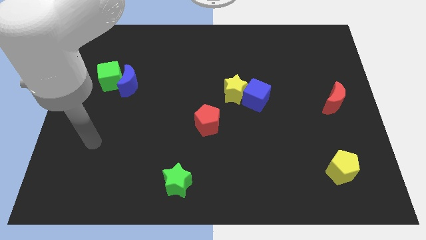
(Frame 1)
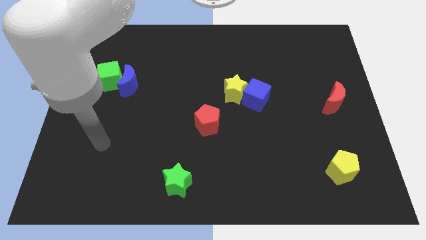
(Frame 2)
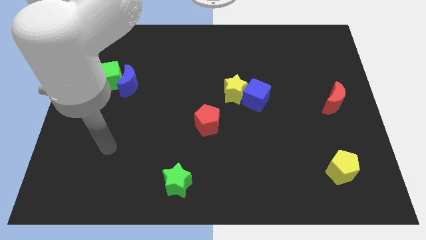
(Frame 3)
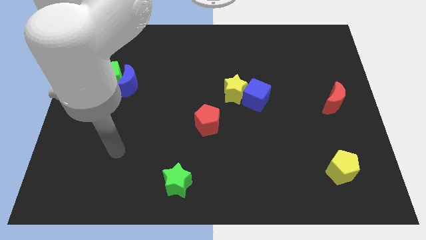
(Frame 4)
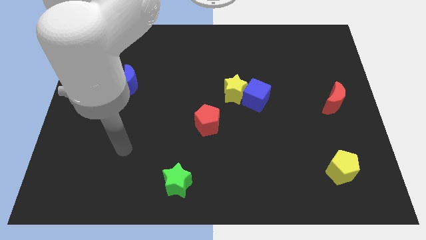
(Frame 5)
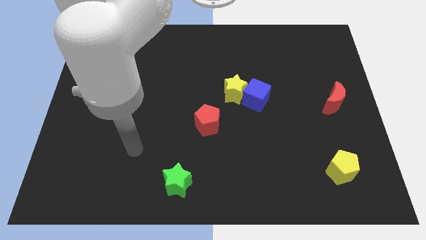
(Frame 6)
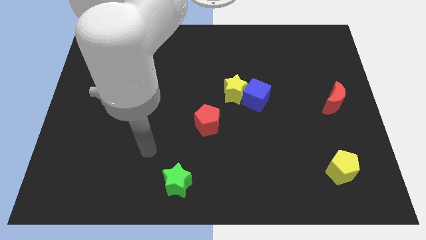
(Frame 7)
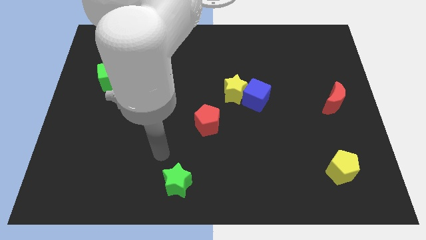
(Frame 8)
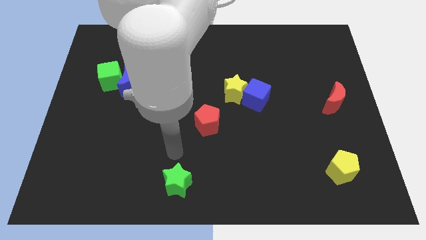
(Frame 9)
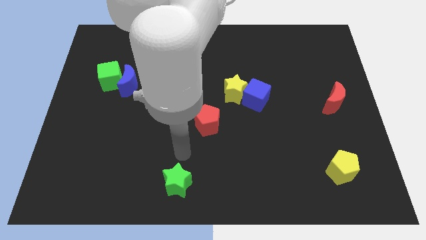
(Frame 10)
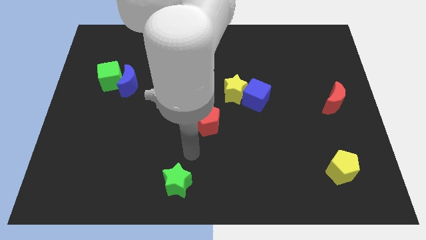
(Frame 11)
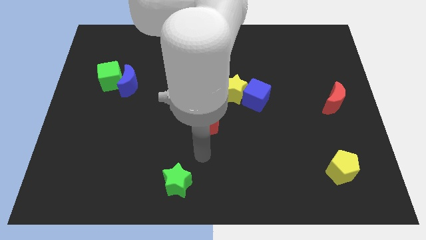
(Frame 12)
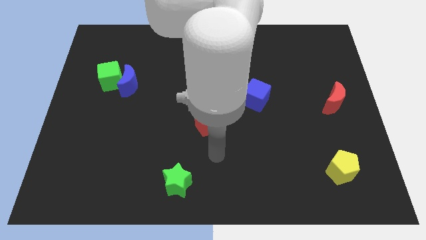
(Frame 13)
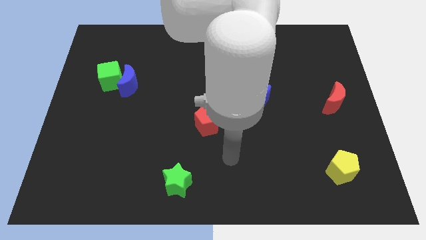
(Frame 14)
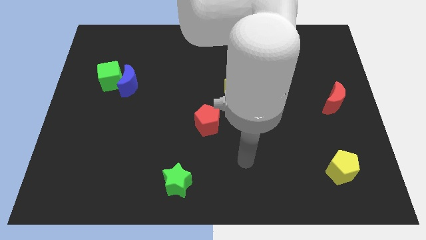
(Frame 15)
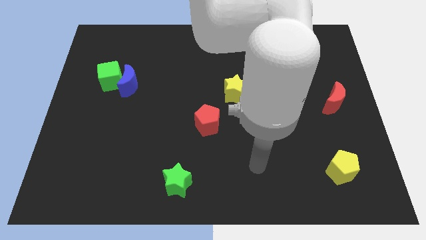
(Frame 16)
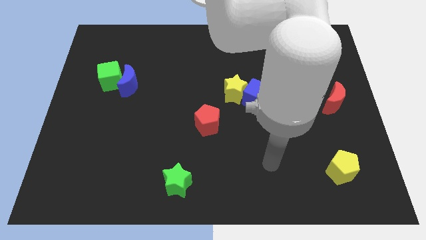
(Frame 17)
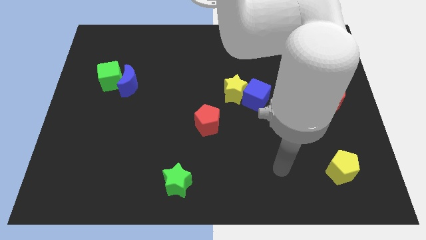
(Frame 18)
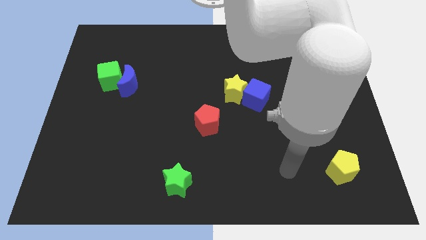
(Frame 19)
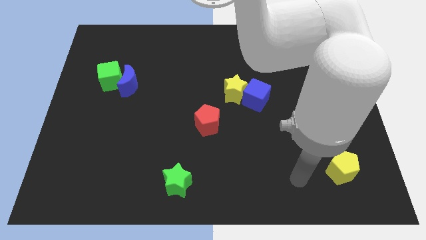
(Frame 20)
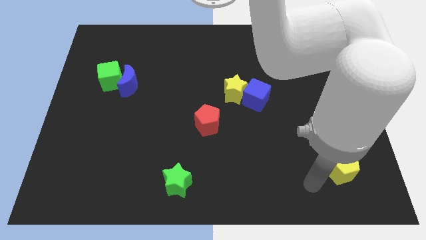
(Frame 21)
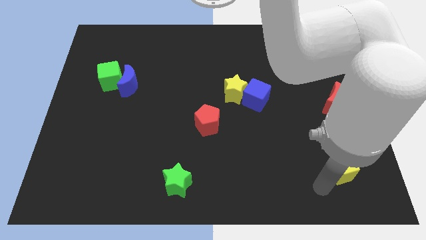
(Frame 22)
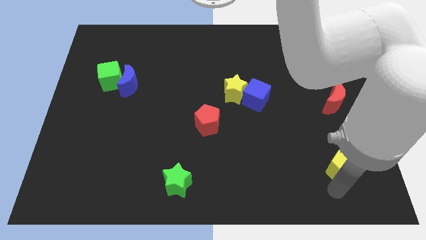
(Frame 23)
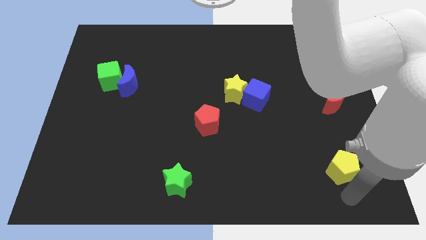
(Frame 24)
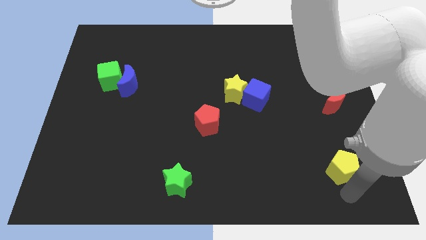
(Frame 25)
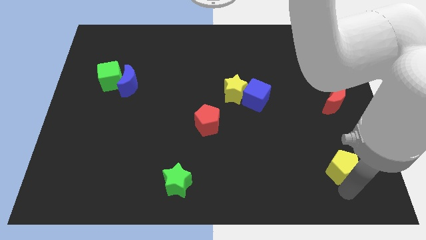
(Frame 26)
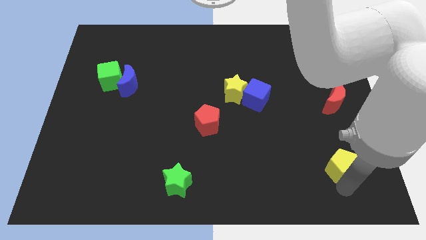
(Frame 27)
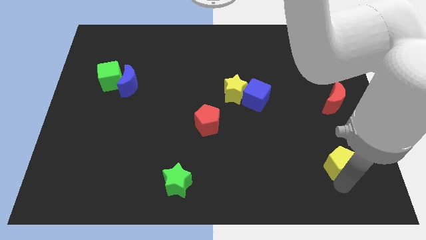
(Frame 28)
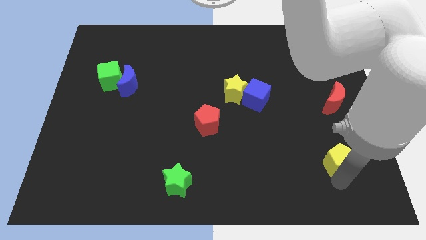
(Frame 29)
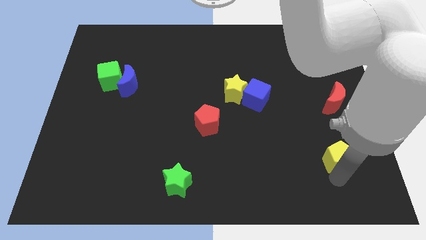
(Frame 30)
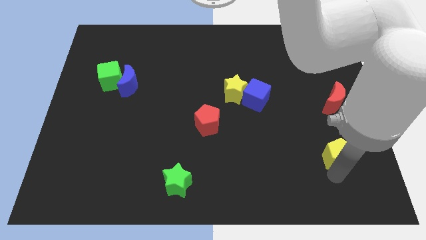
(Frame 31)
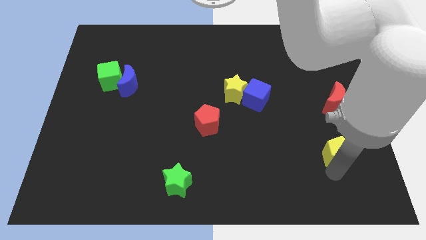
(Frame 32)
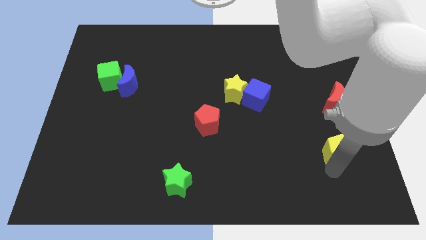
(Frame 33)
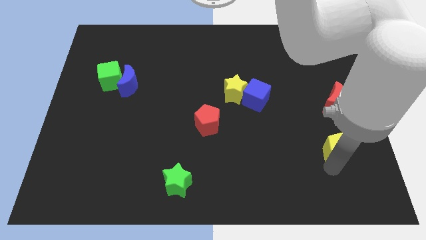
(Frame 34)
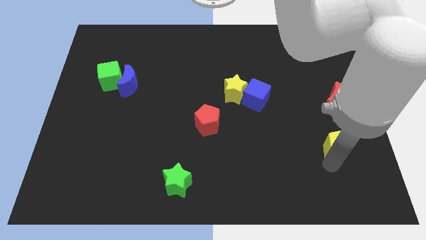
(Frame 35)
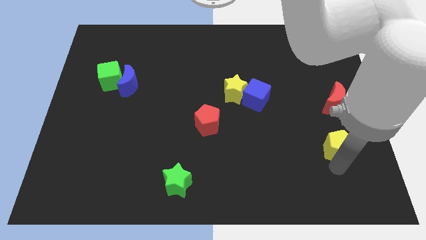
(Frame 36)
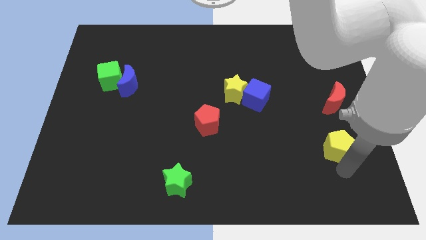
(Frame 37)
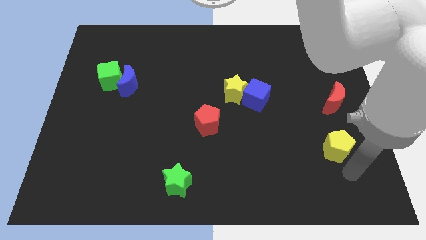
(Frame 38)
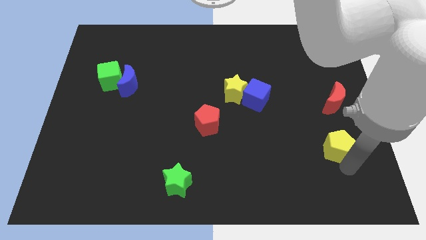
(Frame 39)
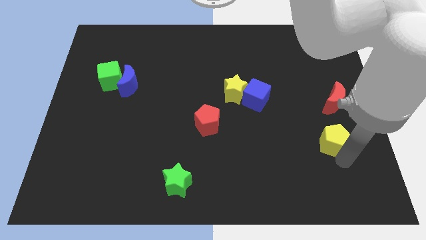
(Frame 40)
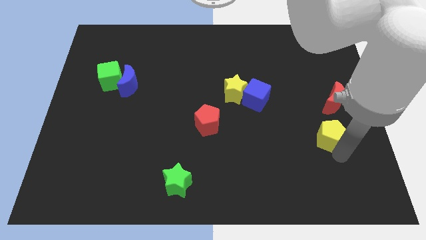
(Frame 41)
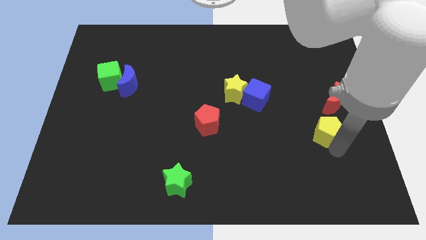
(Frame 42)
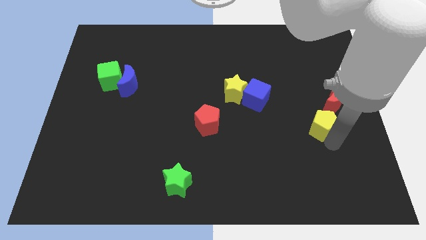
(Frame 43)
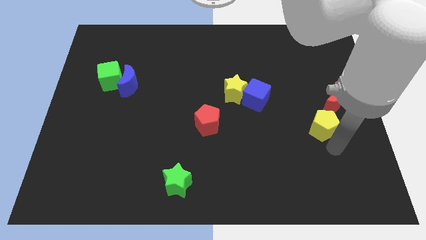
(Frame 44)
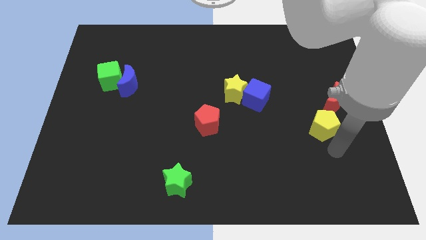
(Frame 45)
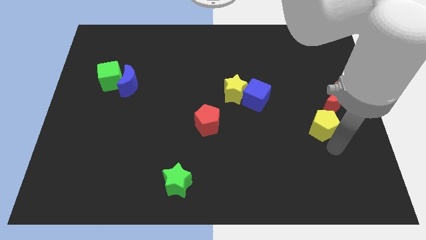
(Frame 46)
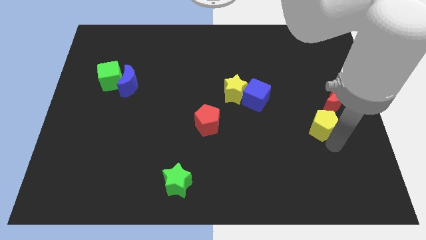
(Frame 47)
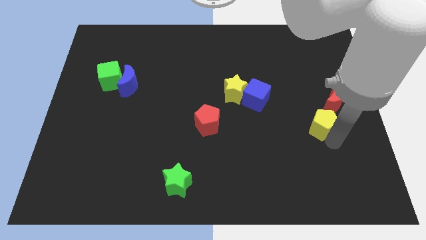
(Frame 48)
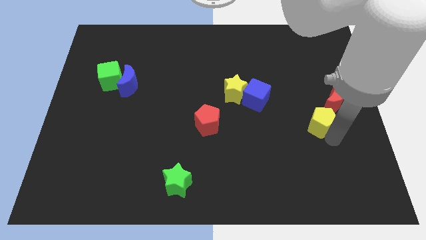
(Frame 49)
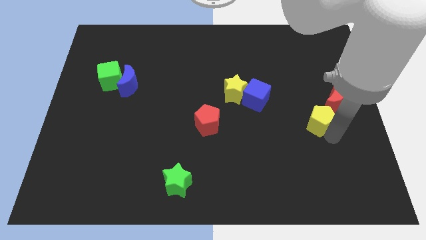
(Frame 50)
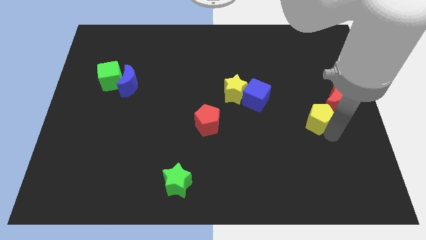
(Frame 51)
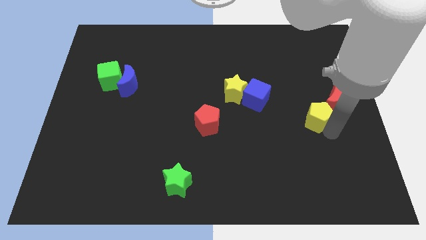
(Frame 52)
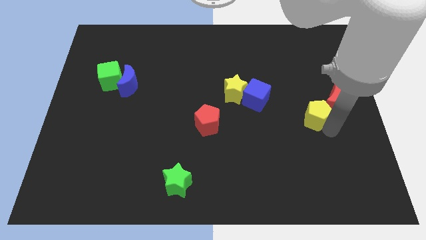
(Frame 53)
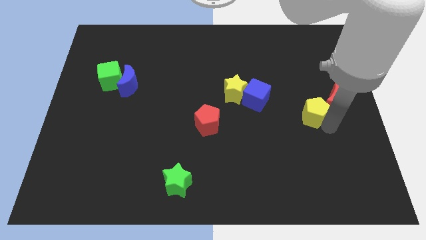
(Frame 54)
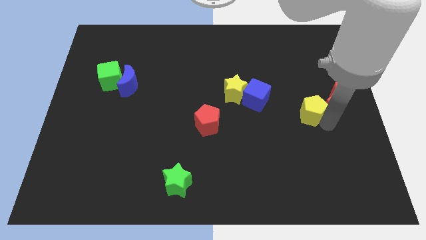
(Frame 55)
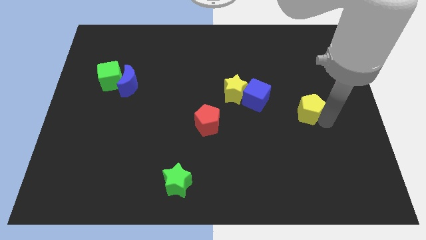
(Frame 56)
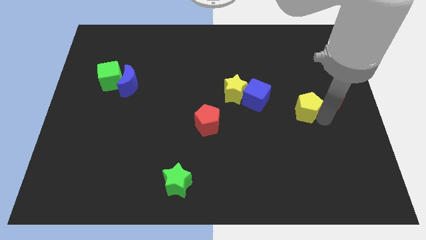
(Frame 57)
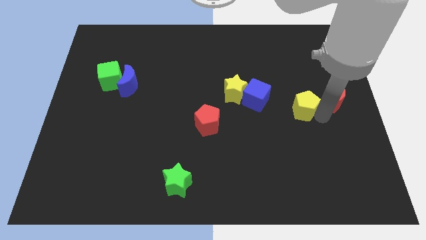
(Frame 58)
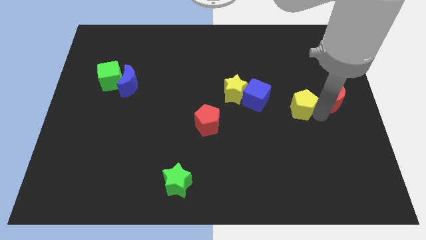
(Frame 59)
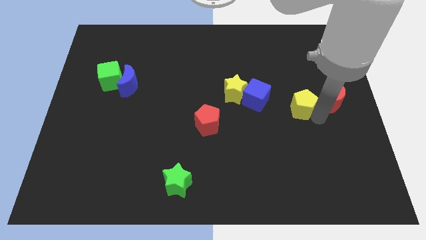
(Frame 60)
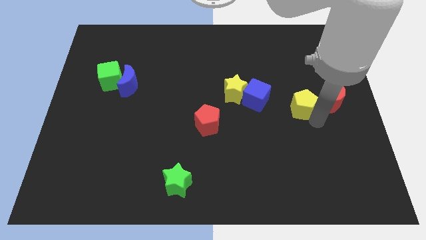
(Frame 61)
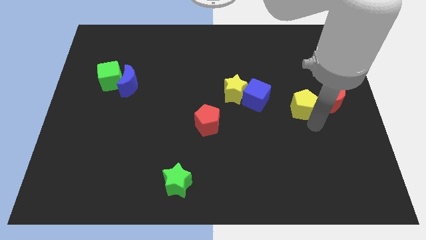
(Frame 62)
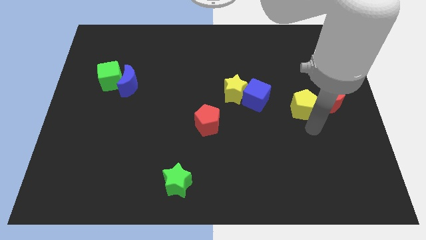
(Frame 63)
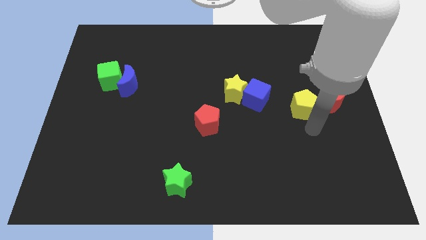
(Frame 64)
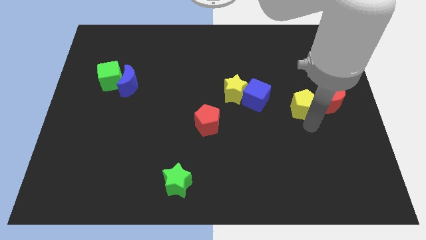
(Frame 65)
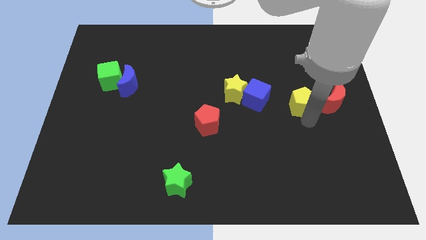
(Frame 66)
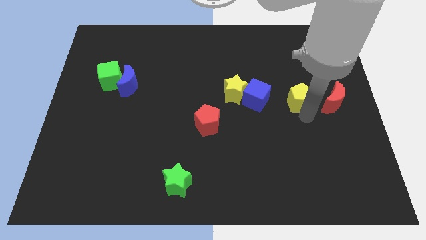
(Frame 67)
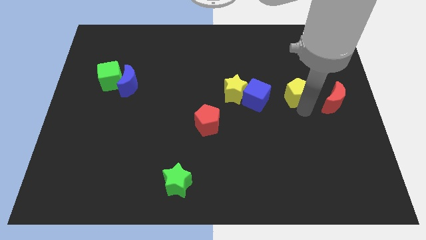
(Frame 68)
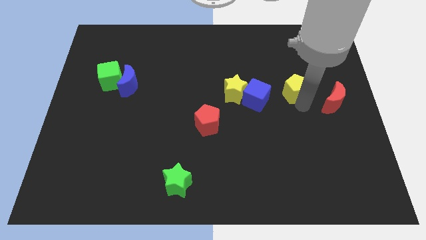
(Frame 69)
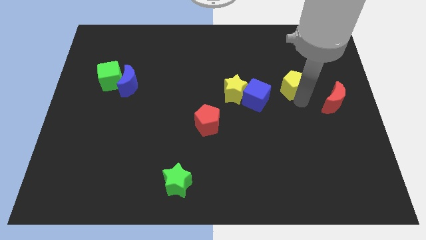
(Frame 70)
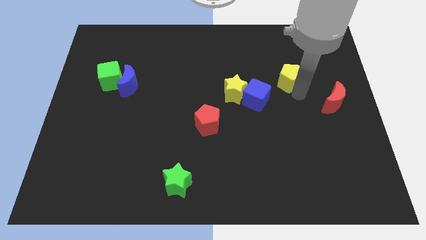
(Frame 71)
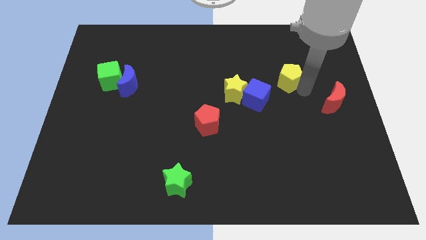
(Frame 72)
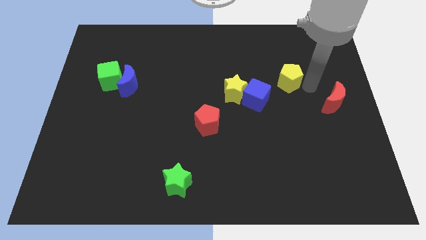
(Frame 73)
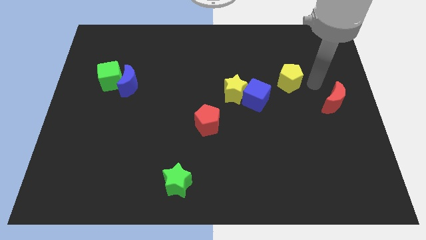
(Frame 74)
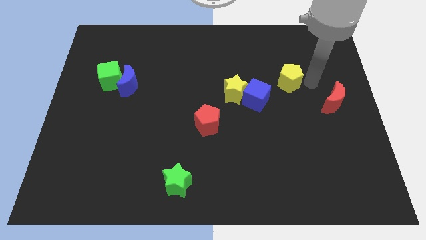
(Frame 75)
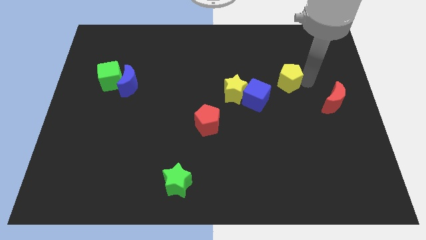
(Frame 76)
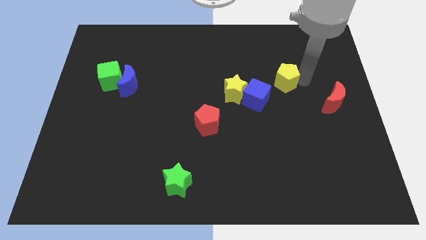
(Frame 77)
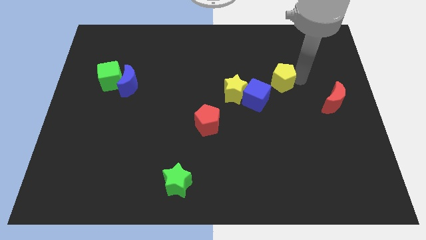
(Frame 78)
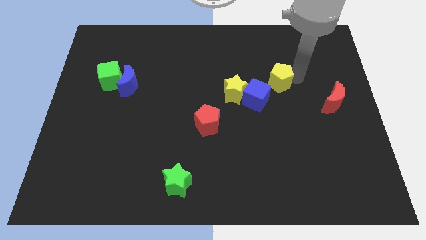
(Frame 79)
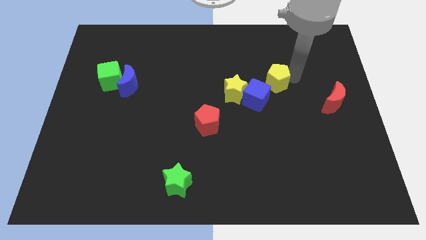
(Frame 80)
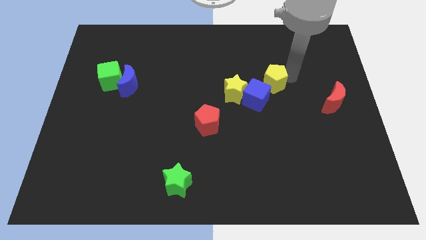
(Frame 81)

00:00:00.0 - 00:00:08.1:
slide the yellow pentagon to the top right of the yellow star

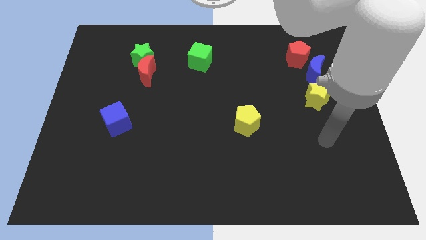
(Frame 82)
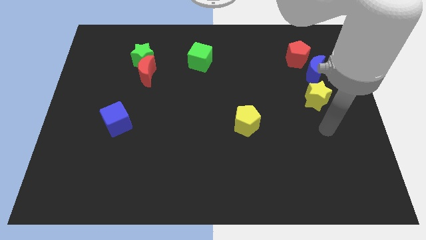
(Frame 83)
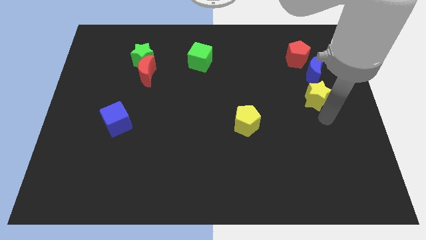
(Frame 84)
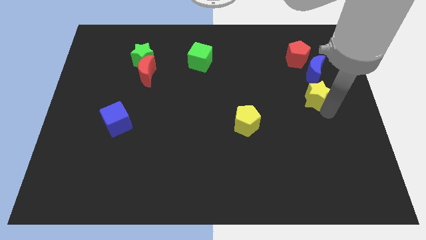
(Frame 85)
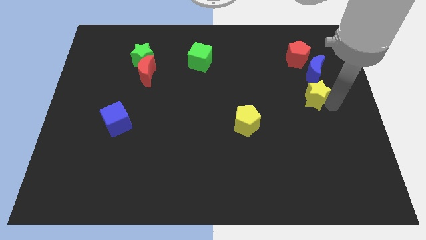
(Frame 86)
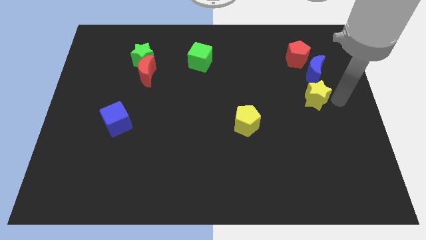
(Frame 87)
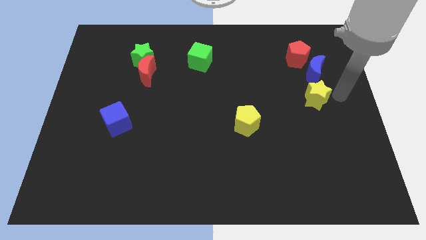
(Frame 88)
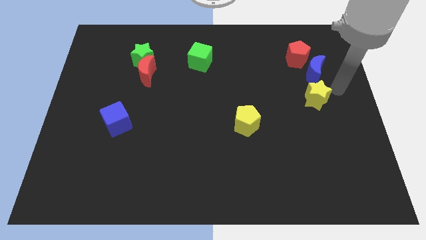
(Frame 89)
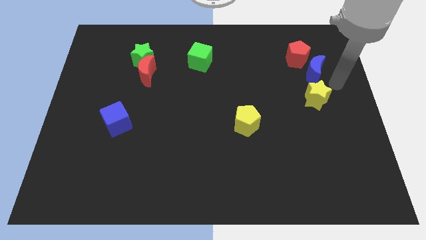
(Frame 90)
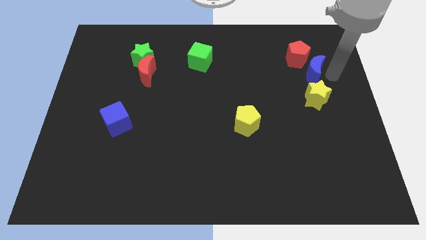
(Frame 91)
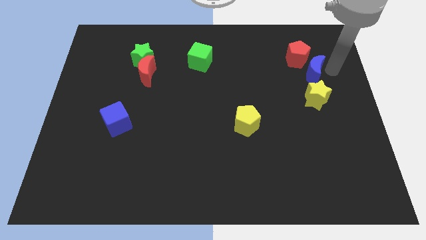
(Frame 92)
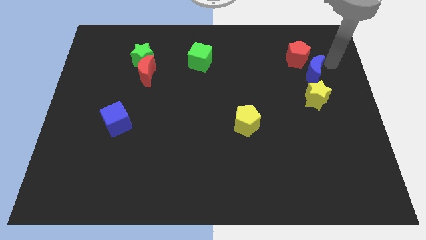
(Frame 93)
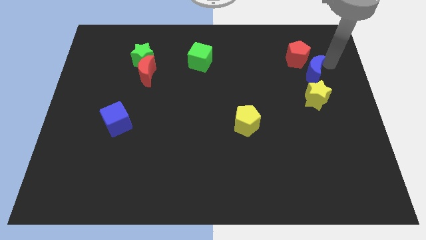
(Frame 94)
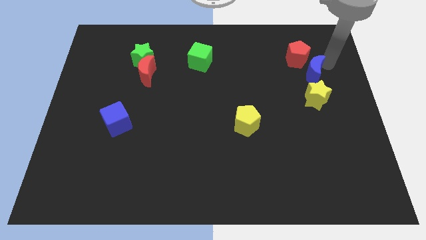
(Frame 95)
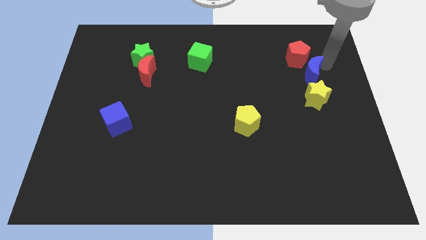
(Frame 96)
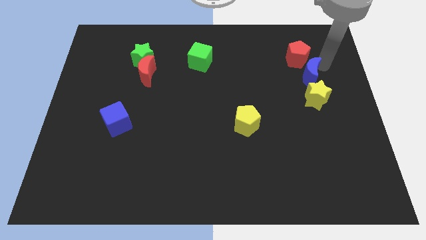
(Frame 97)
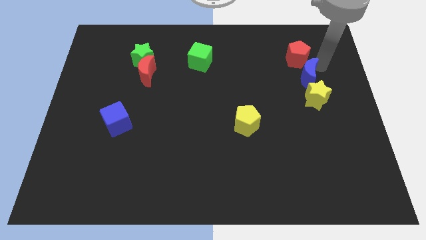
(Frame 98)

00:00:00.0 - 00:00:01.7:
move the blue moon to the top left side of the yellow star
